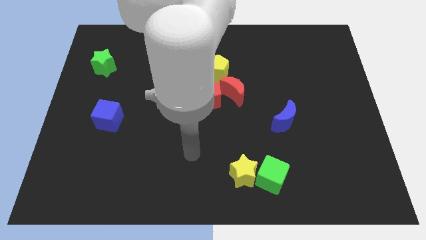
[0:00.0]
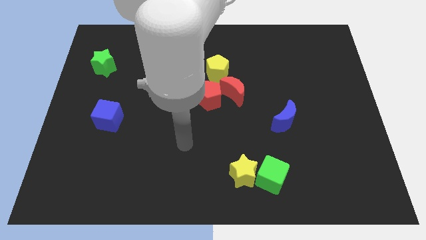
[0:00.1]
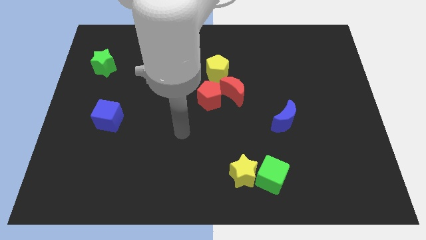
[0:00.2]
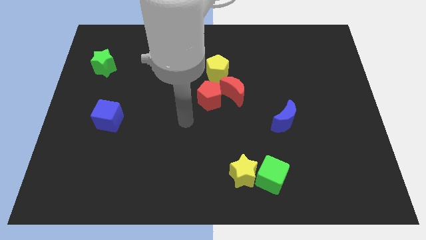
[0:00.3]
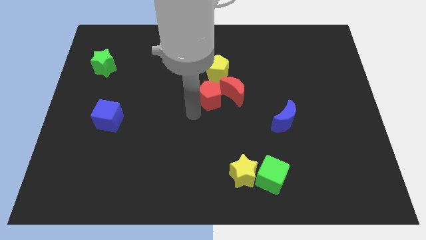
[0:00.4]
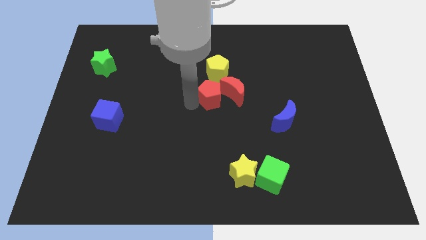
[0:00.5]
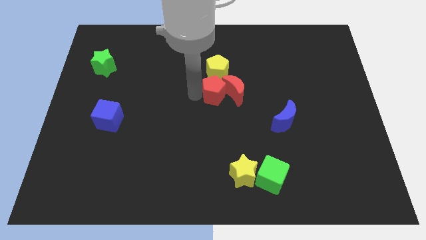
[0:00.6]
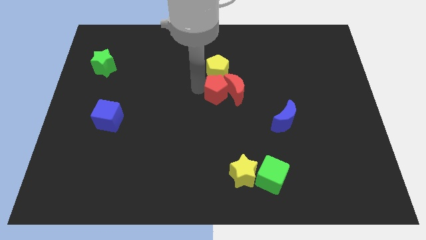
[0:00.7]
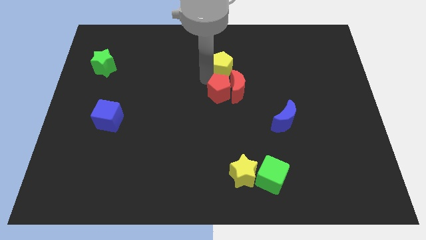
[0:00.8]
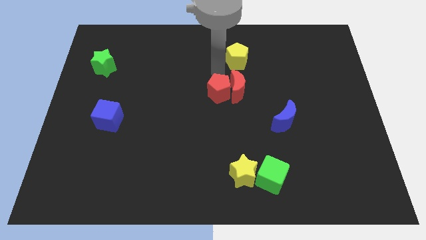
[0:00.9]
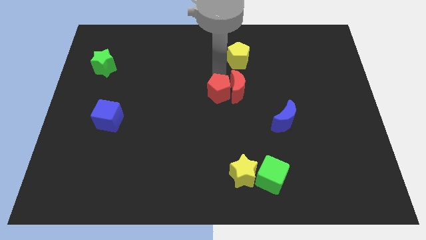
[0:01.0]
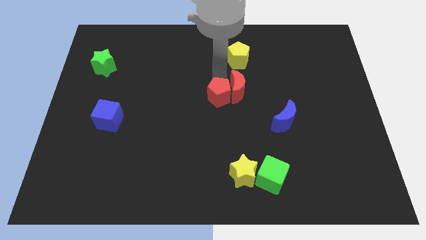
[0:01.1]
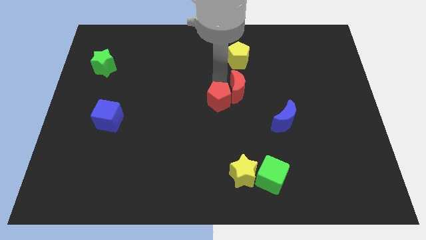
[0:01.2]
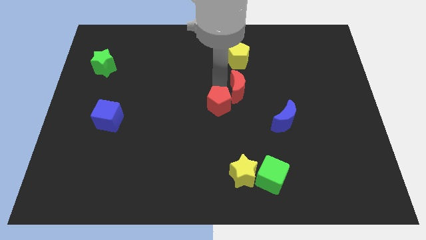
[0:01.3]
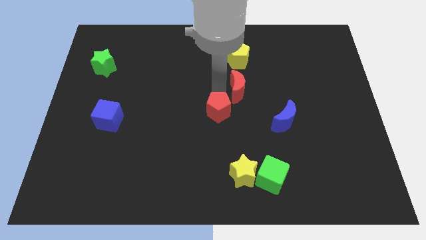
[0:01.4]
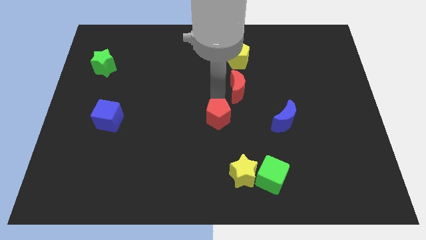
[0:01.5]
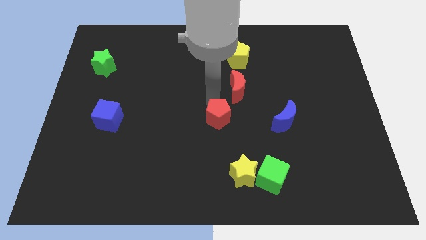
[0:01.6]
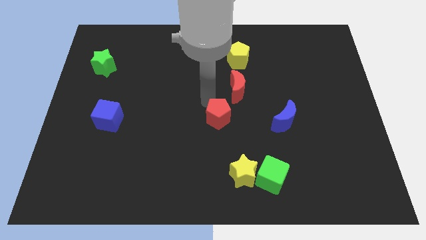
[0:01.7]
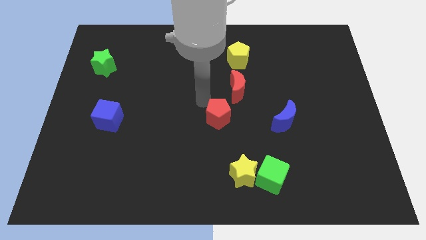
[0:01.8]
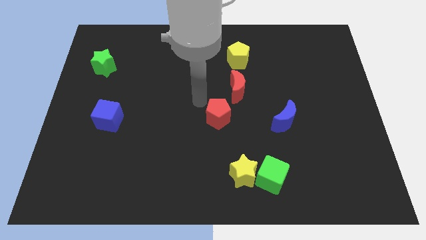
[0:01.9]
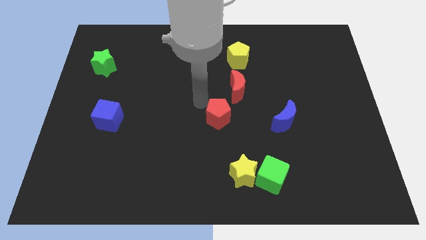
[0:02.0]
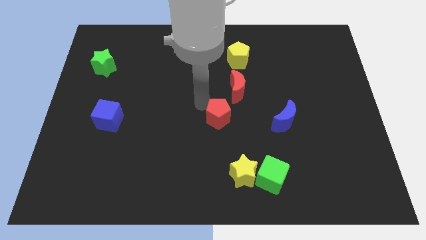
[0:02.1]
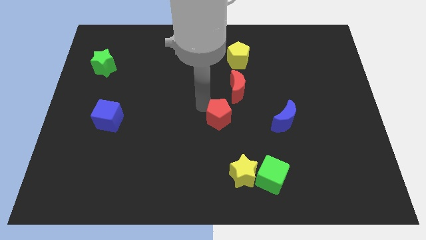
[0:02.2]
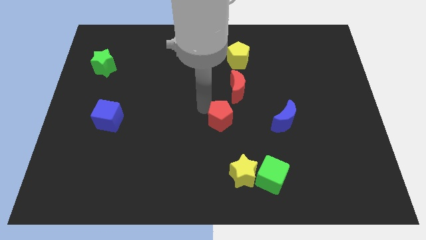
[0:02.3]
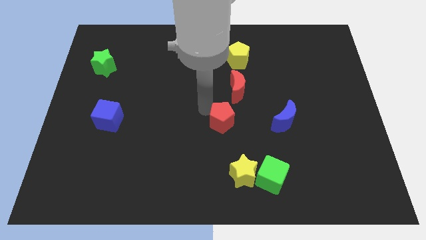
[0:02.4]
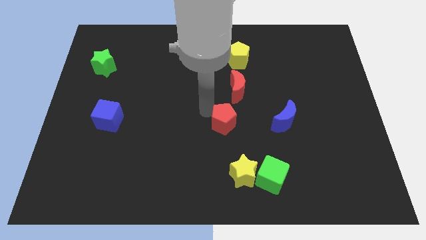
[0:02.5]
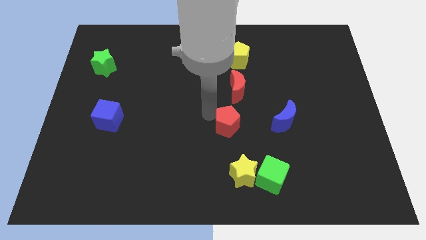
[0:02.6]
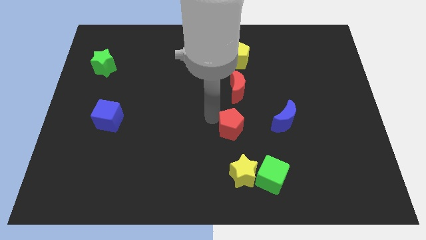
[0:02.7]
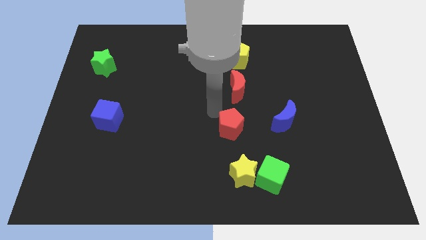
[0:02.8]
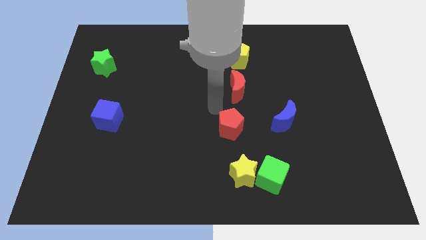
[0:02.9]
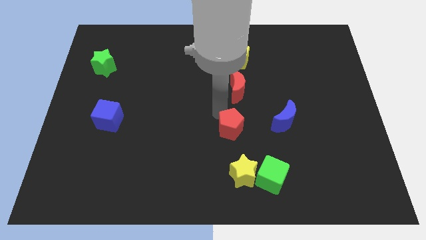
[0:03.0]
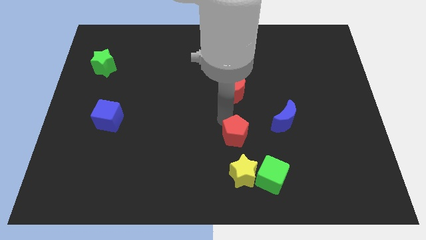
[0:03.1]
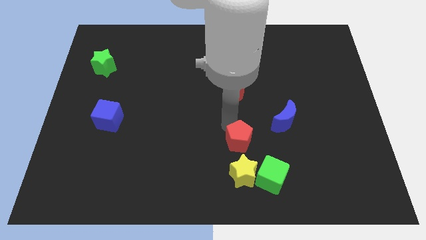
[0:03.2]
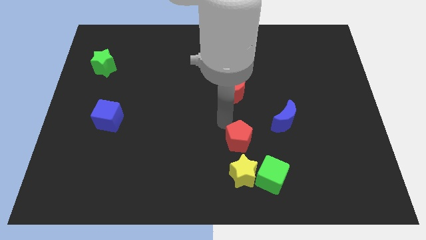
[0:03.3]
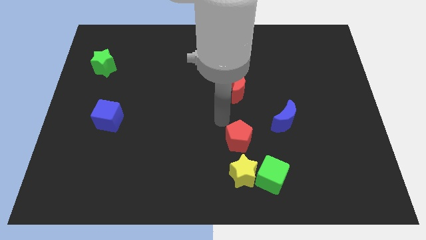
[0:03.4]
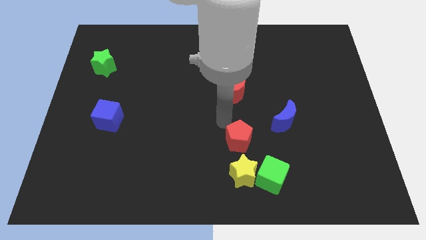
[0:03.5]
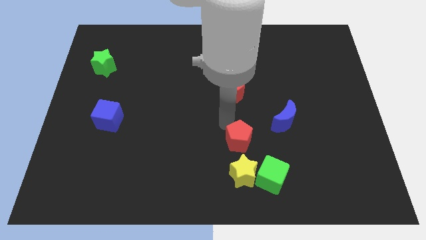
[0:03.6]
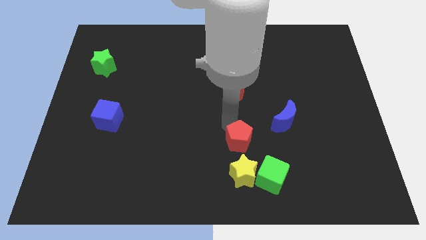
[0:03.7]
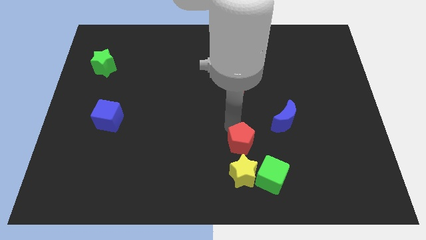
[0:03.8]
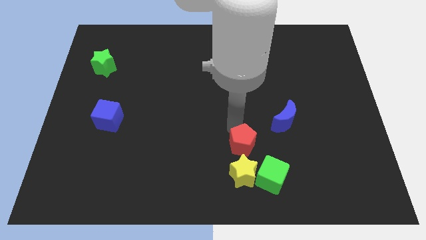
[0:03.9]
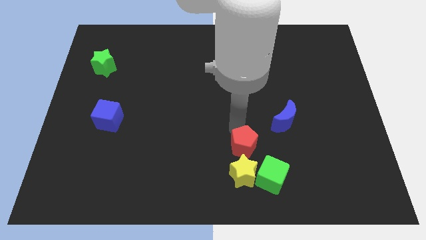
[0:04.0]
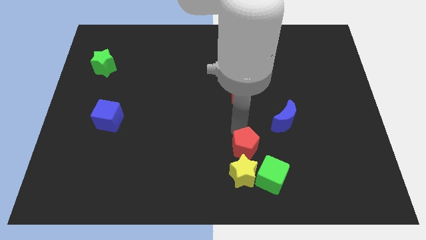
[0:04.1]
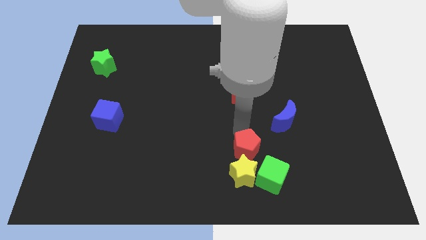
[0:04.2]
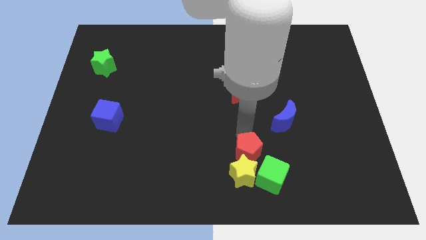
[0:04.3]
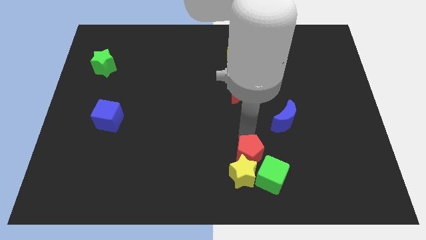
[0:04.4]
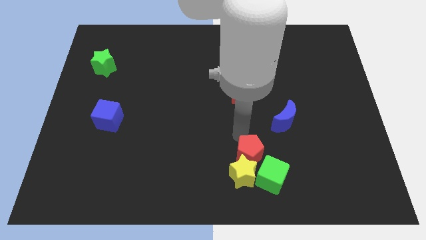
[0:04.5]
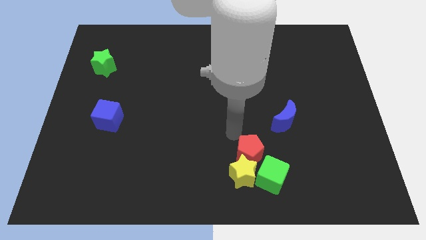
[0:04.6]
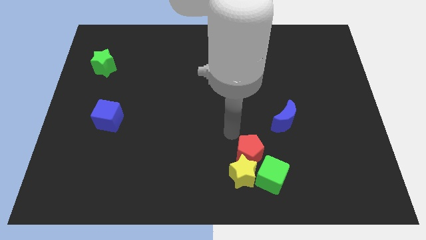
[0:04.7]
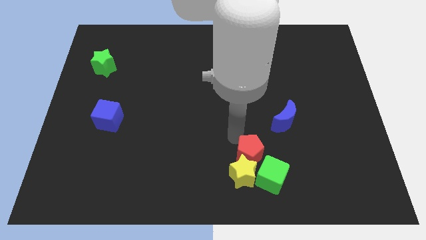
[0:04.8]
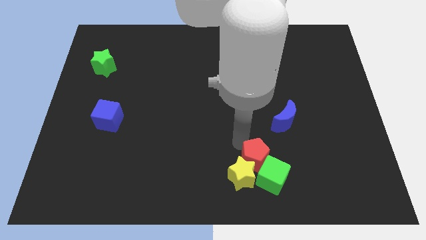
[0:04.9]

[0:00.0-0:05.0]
slide the red pentagon close to the green cube

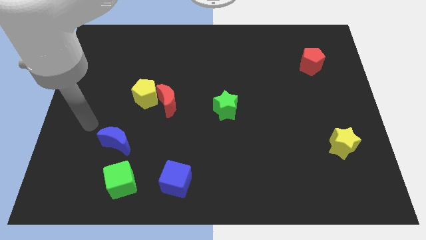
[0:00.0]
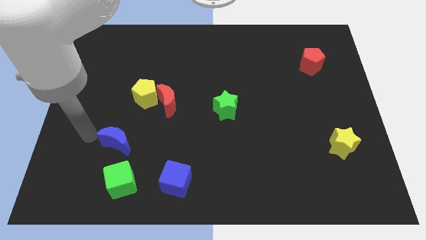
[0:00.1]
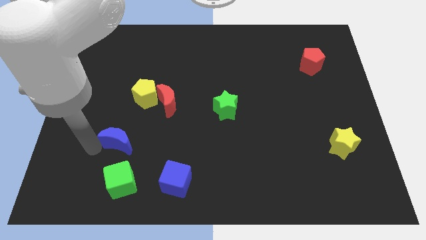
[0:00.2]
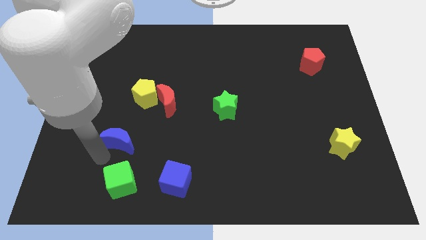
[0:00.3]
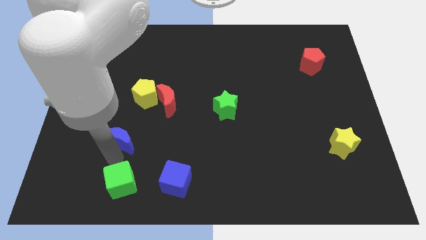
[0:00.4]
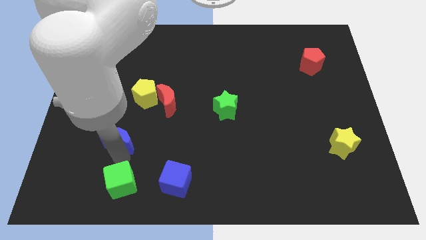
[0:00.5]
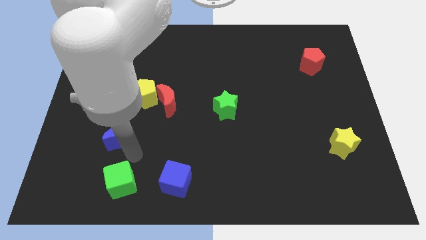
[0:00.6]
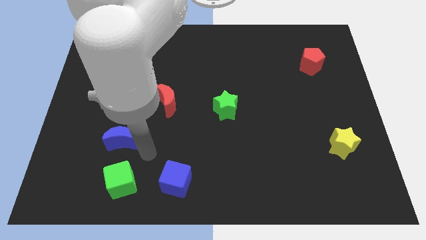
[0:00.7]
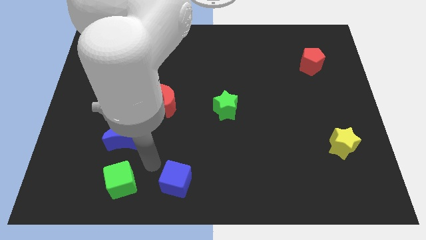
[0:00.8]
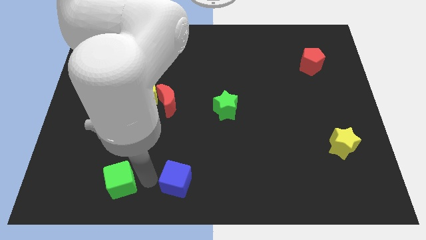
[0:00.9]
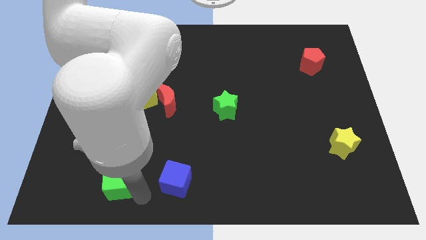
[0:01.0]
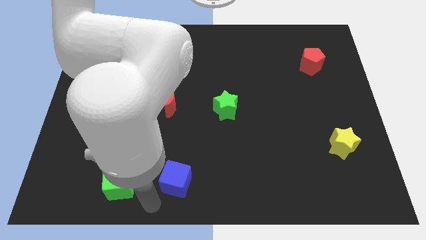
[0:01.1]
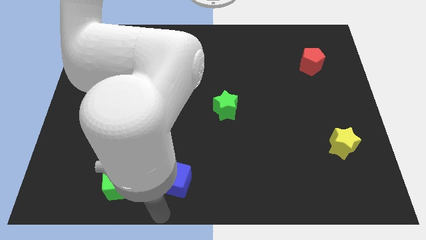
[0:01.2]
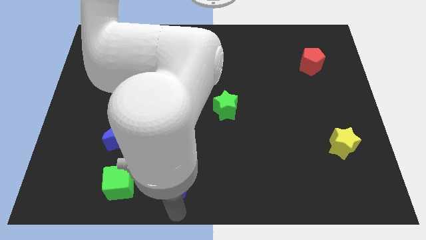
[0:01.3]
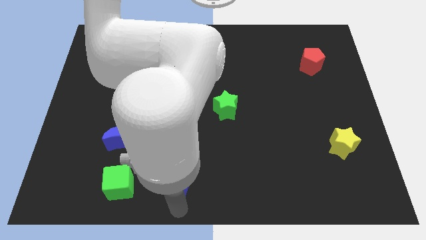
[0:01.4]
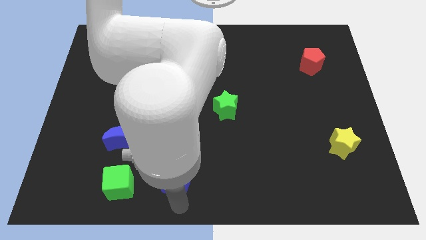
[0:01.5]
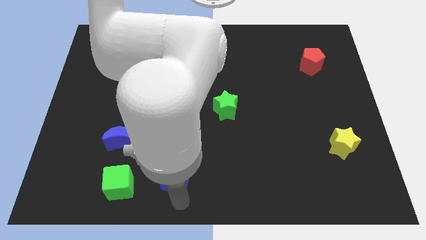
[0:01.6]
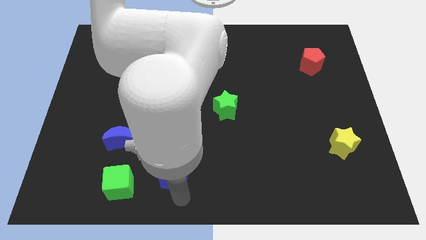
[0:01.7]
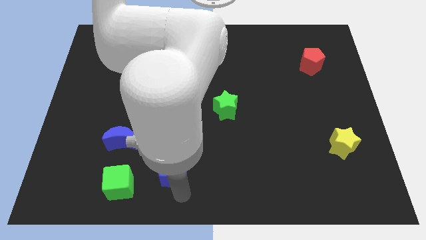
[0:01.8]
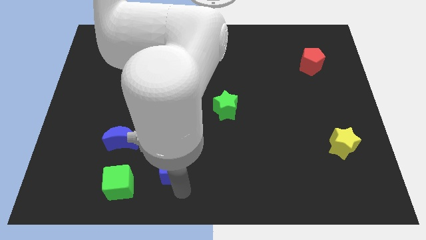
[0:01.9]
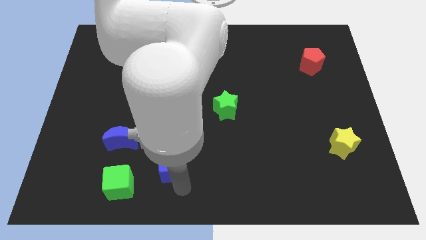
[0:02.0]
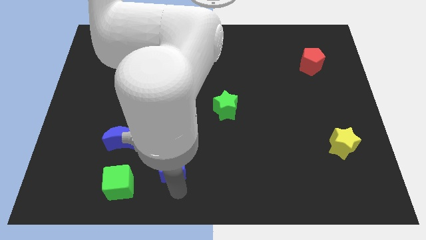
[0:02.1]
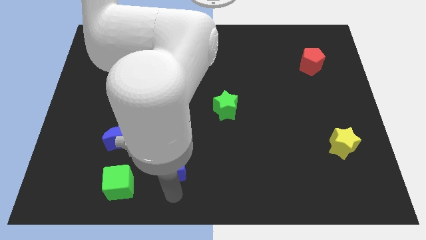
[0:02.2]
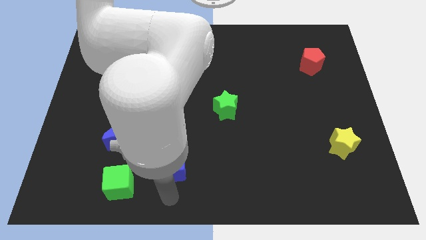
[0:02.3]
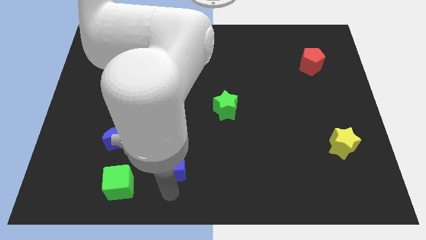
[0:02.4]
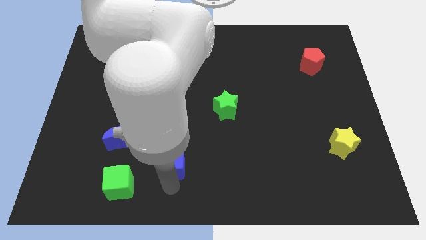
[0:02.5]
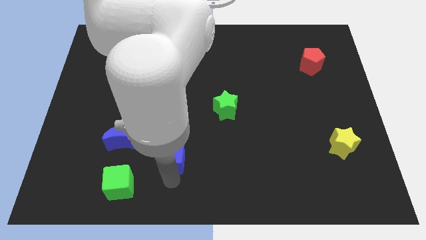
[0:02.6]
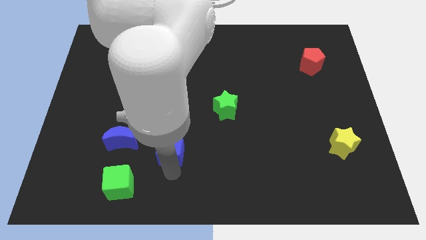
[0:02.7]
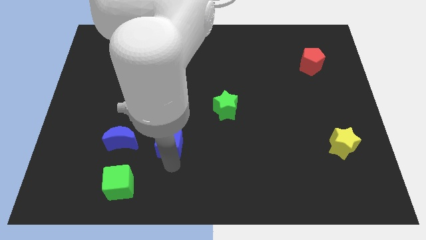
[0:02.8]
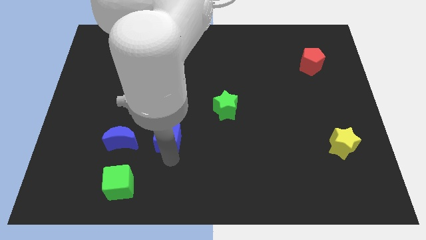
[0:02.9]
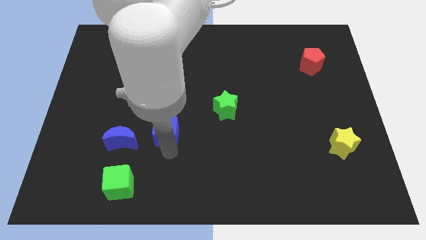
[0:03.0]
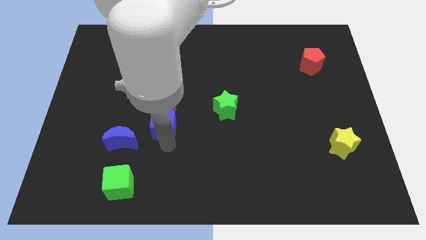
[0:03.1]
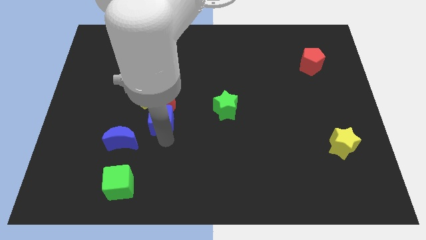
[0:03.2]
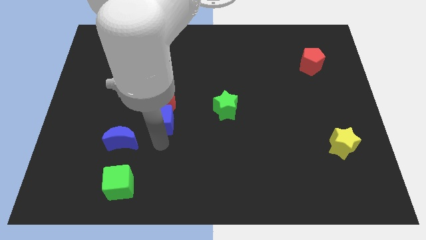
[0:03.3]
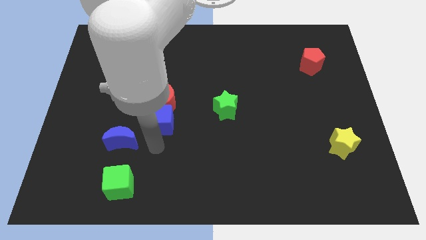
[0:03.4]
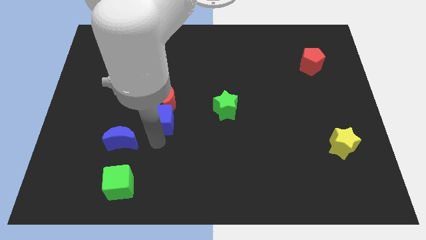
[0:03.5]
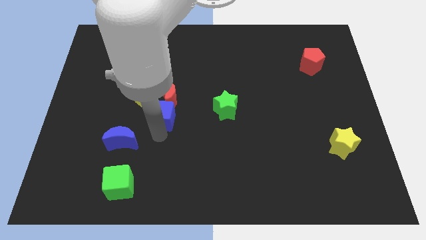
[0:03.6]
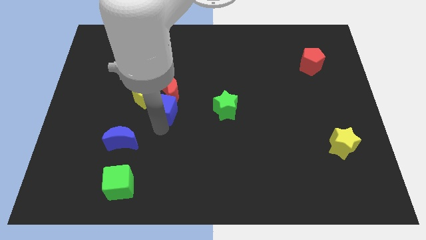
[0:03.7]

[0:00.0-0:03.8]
move the blue cube towards the red moon
